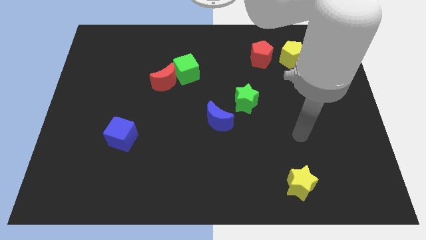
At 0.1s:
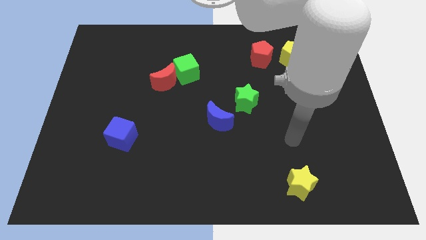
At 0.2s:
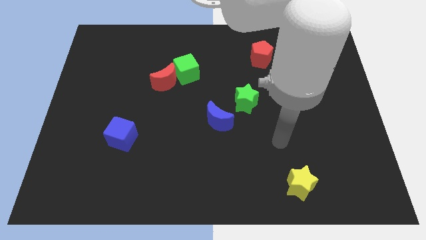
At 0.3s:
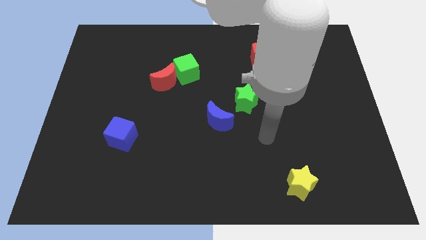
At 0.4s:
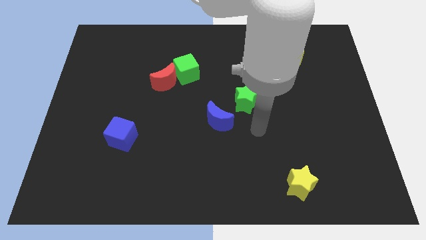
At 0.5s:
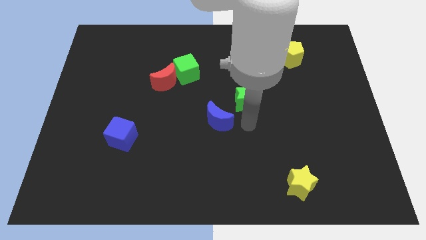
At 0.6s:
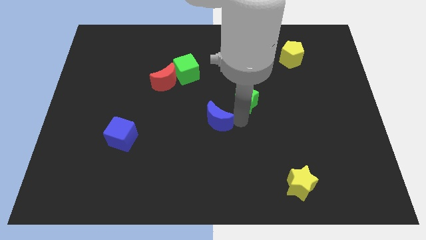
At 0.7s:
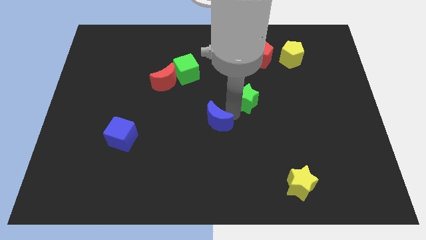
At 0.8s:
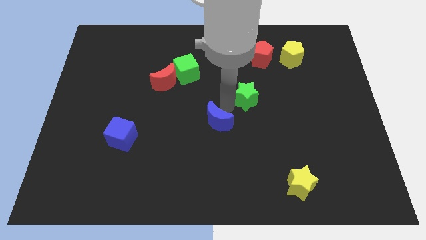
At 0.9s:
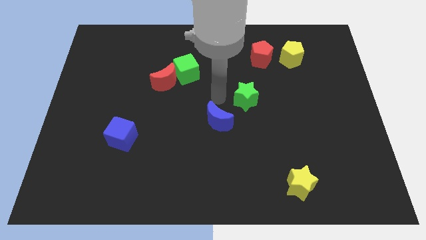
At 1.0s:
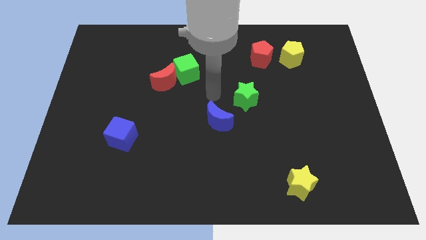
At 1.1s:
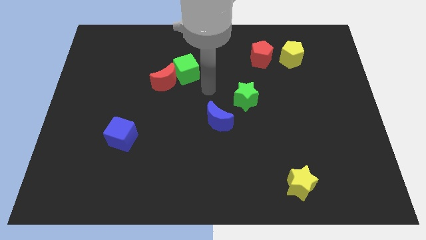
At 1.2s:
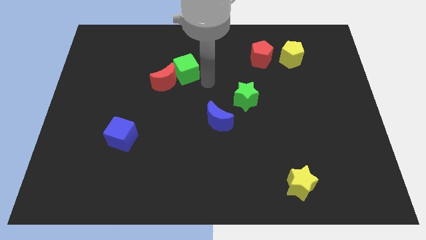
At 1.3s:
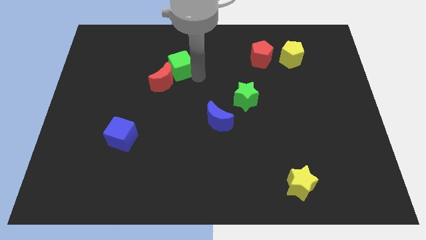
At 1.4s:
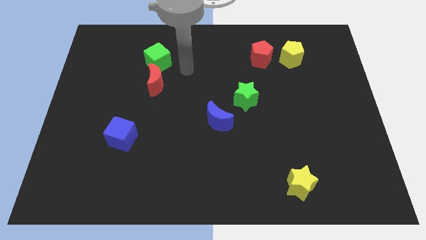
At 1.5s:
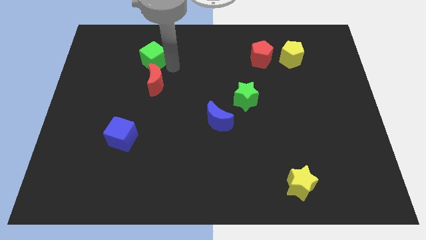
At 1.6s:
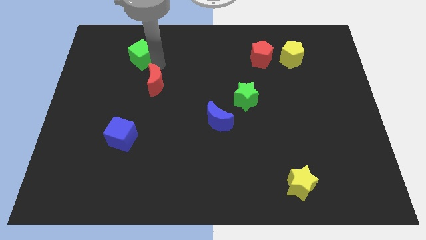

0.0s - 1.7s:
separate the red moon from the green cube

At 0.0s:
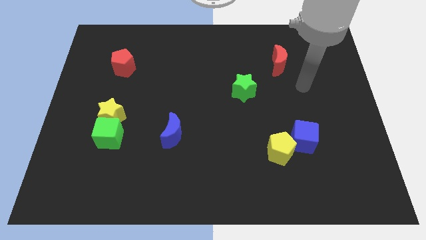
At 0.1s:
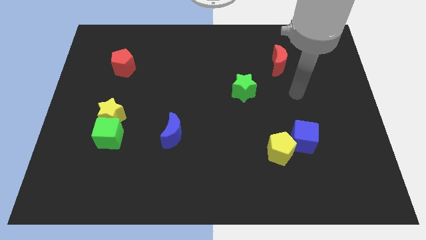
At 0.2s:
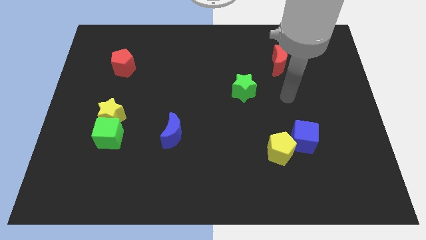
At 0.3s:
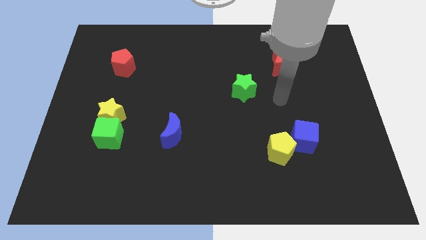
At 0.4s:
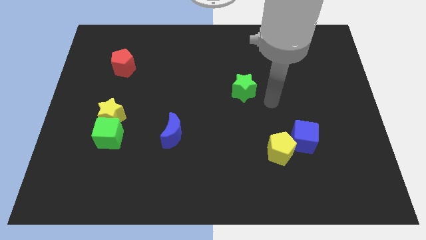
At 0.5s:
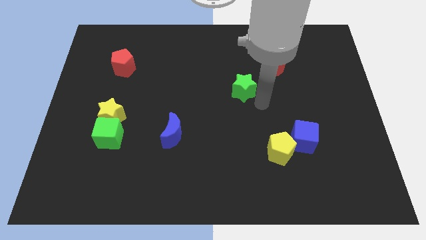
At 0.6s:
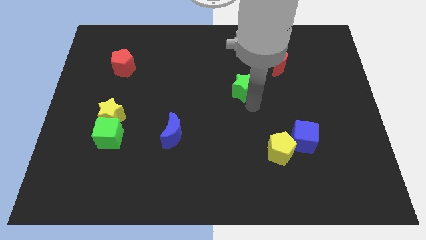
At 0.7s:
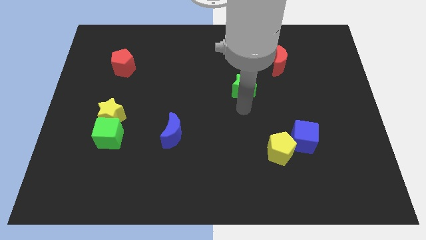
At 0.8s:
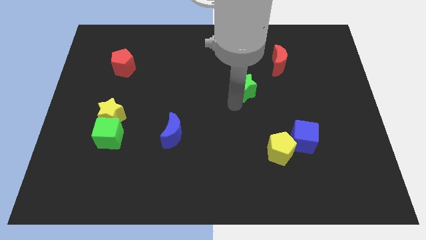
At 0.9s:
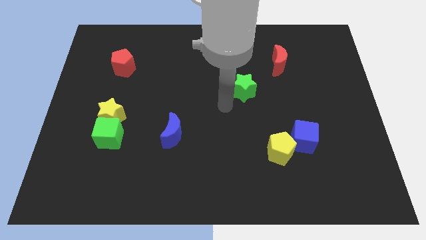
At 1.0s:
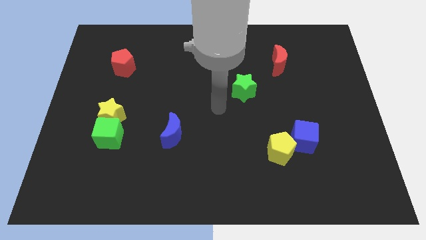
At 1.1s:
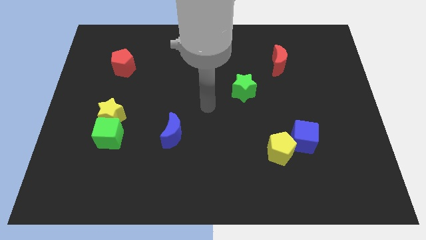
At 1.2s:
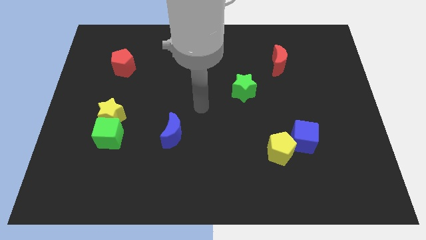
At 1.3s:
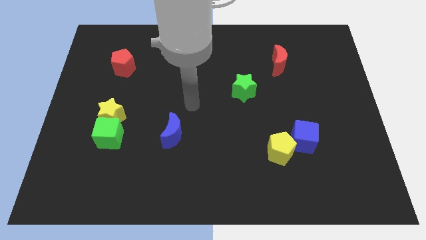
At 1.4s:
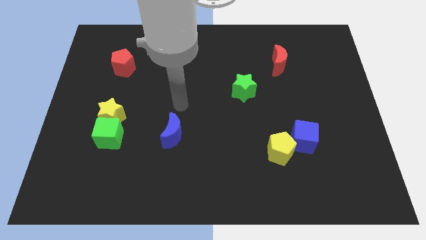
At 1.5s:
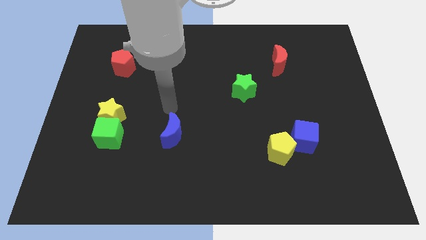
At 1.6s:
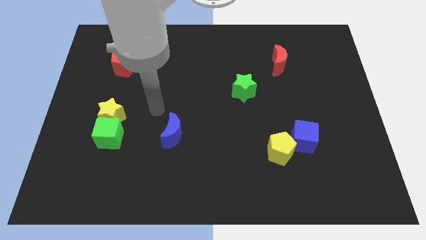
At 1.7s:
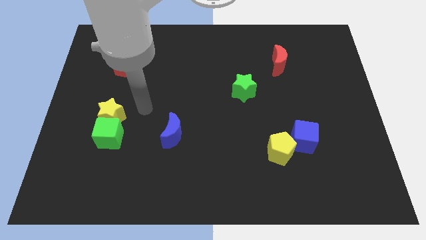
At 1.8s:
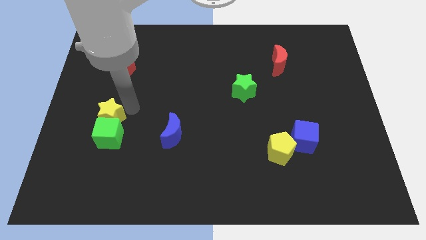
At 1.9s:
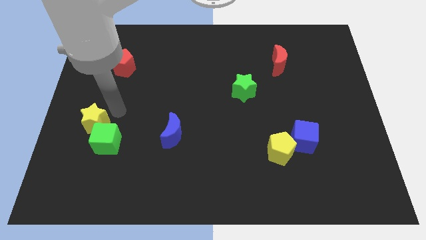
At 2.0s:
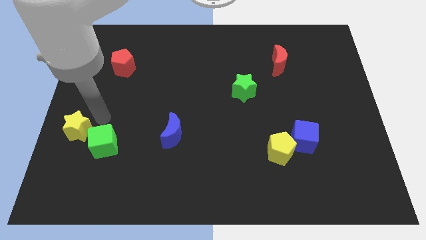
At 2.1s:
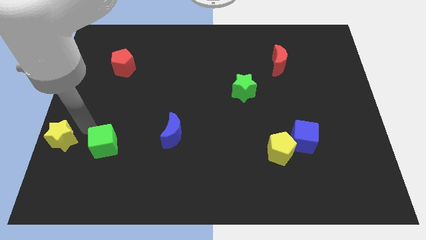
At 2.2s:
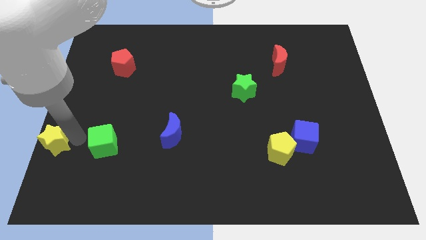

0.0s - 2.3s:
pull the green cube apart from the yellow star

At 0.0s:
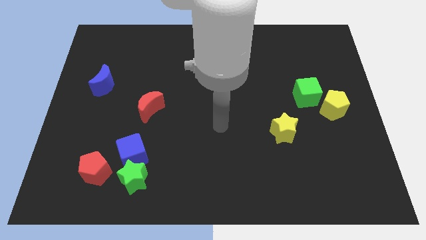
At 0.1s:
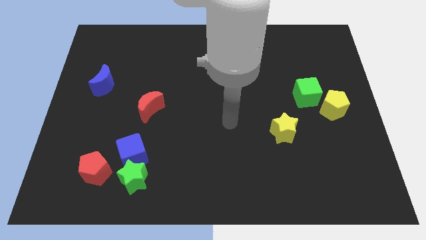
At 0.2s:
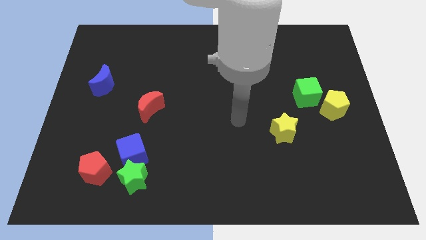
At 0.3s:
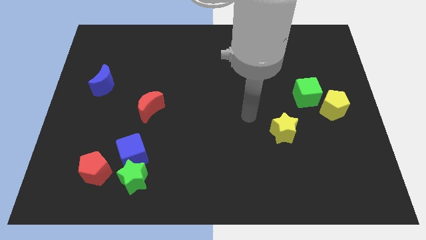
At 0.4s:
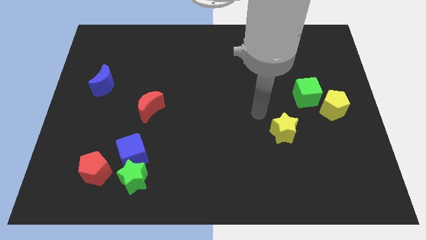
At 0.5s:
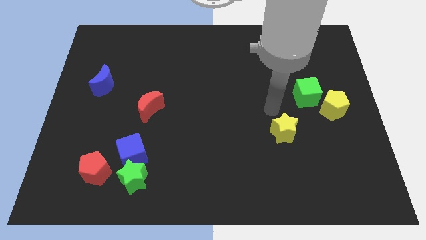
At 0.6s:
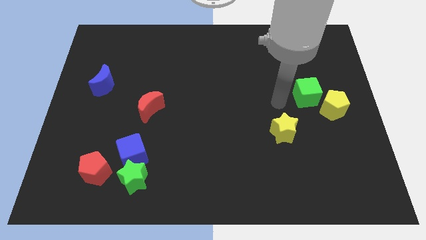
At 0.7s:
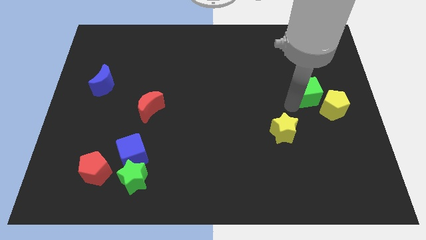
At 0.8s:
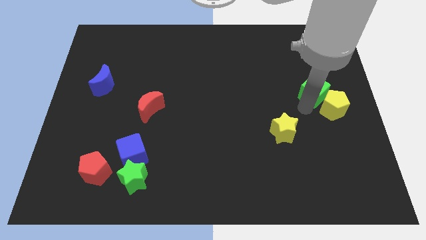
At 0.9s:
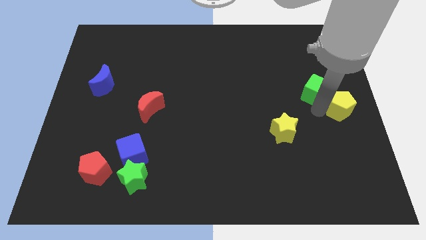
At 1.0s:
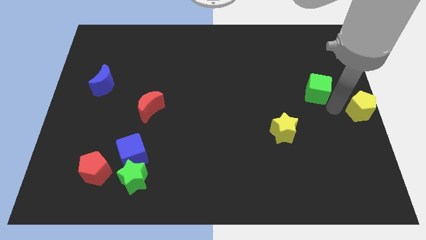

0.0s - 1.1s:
pull the green cube apart from the yellow pentagon

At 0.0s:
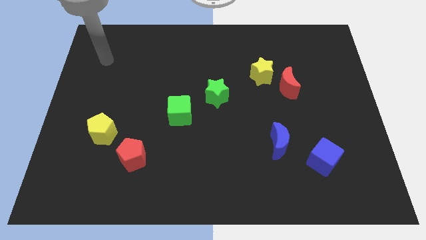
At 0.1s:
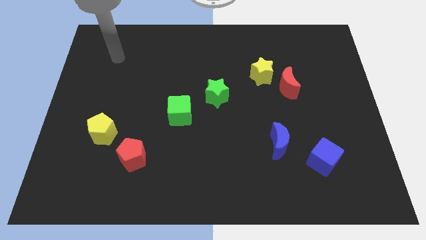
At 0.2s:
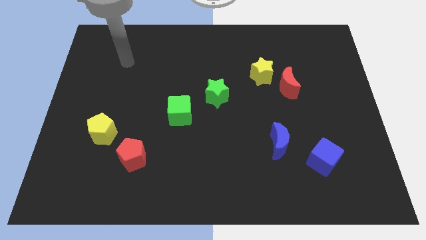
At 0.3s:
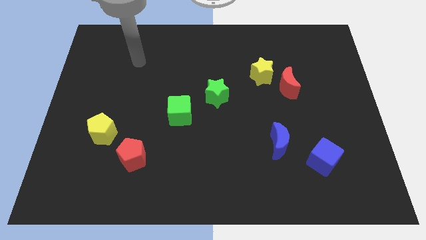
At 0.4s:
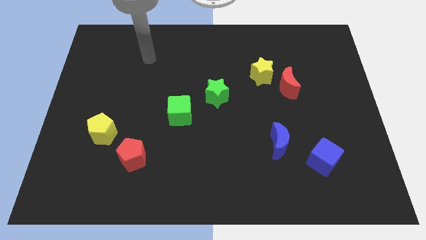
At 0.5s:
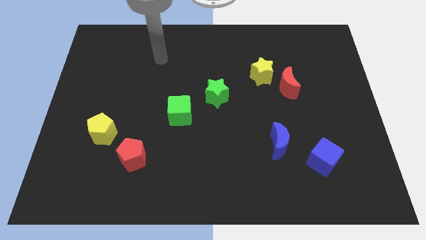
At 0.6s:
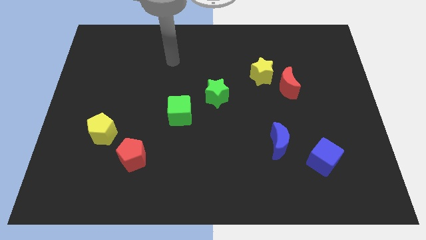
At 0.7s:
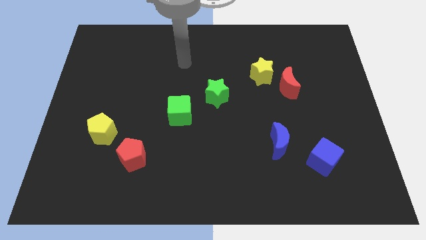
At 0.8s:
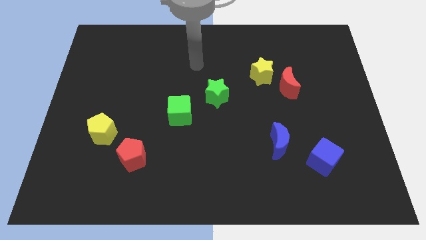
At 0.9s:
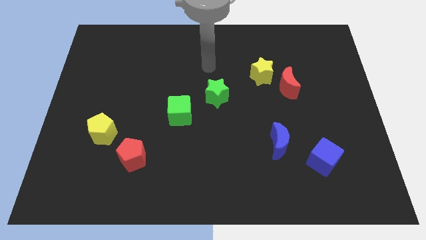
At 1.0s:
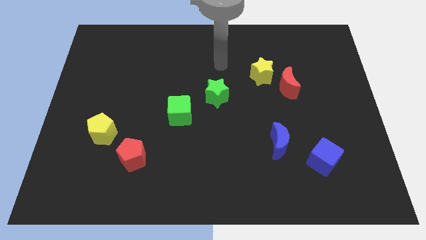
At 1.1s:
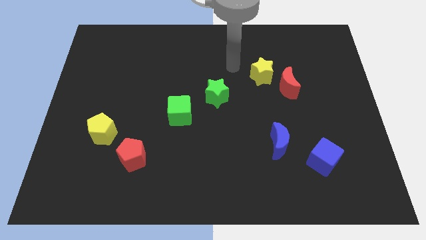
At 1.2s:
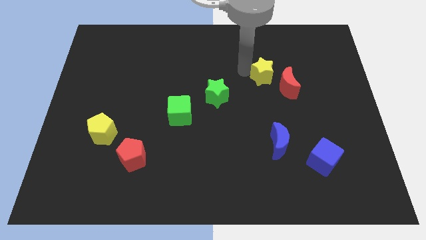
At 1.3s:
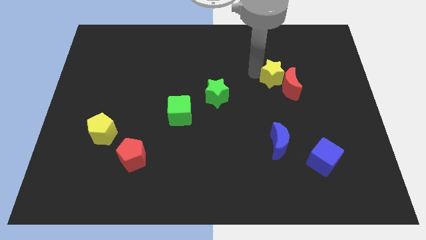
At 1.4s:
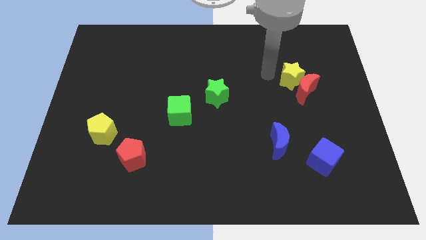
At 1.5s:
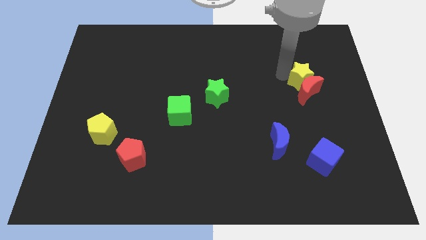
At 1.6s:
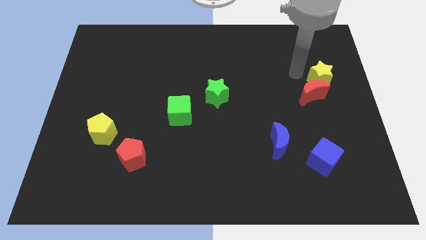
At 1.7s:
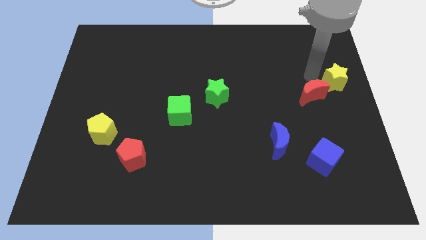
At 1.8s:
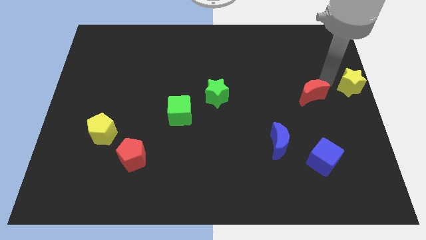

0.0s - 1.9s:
pull the red moon apart from the yellow star

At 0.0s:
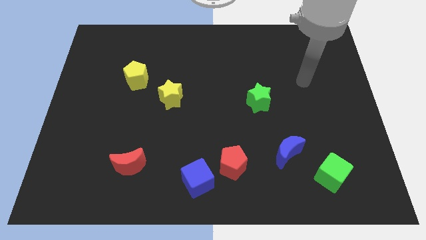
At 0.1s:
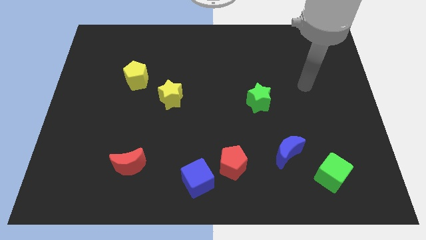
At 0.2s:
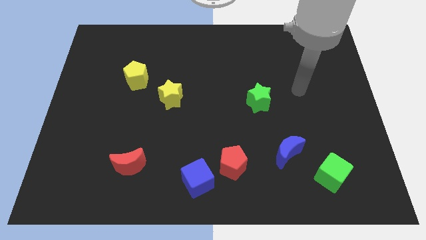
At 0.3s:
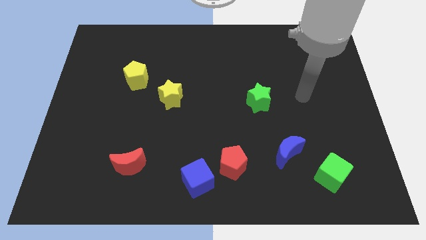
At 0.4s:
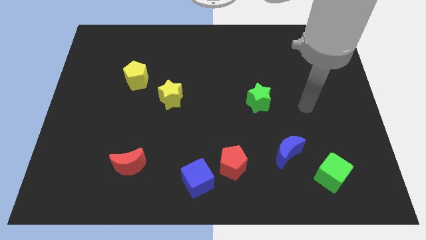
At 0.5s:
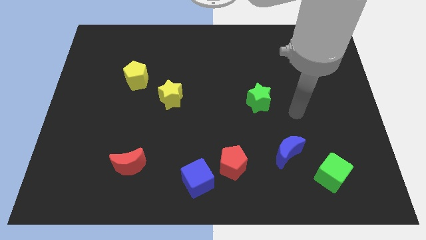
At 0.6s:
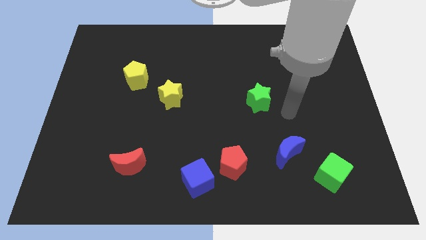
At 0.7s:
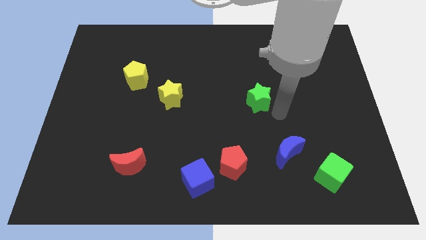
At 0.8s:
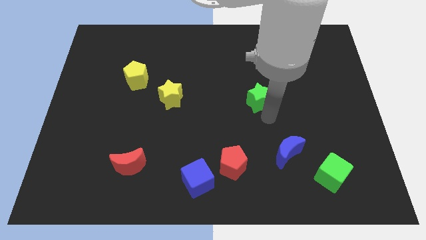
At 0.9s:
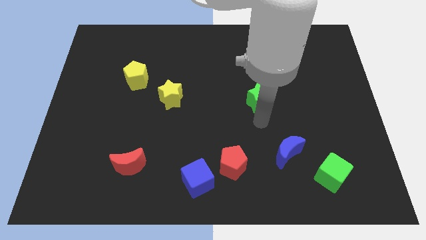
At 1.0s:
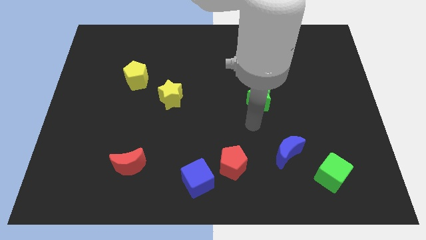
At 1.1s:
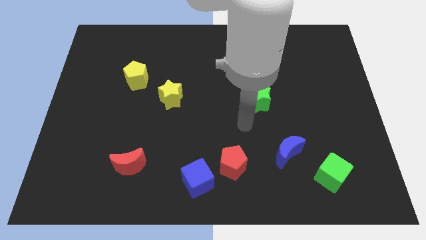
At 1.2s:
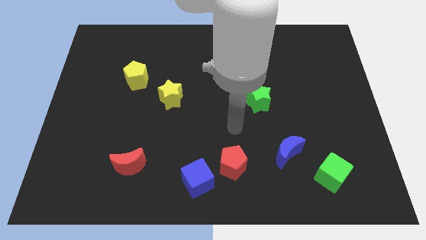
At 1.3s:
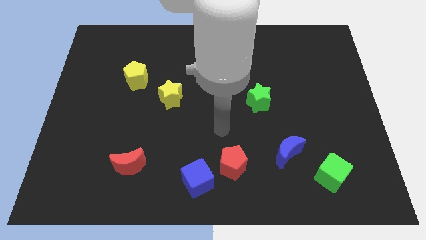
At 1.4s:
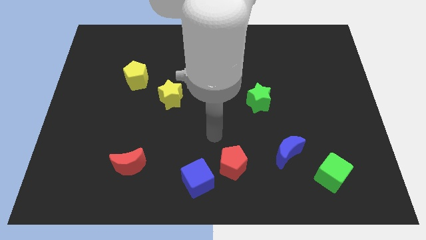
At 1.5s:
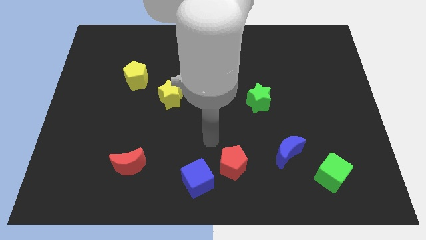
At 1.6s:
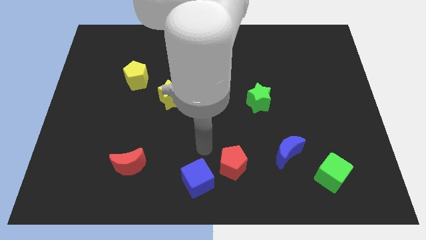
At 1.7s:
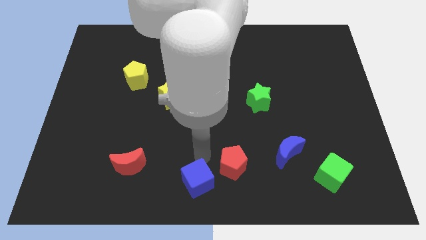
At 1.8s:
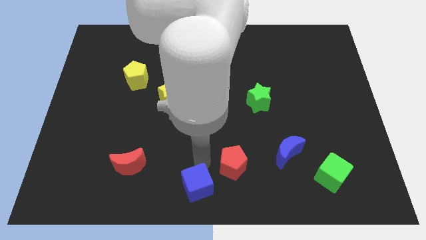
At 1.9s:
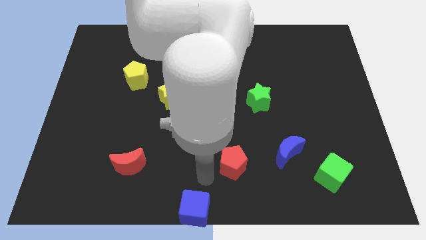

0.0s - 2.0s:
separate the red pentagon from the blue cube

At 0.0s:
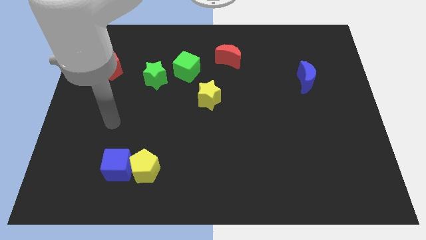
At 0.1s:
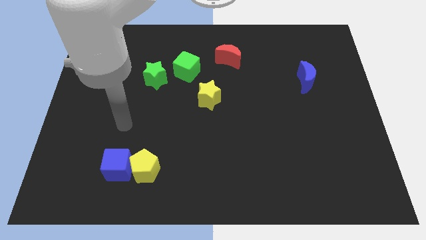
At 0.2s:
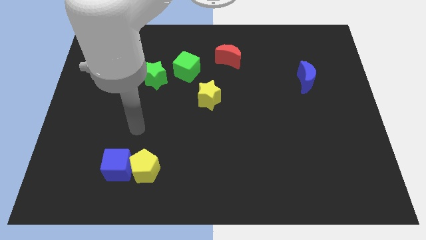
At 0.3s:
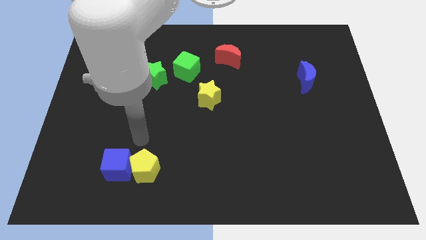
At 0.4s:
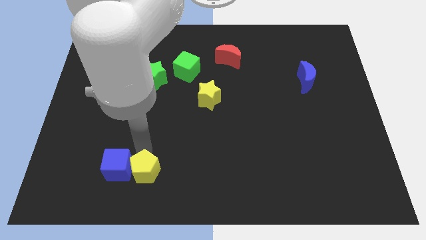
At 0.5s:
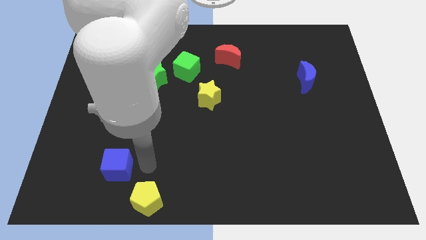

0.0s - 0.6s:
separate the blue cube from the yellow pentagon
